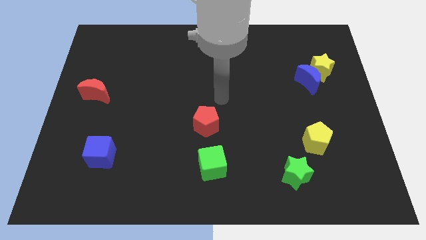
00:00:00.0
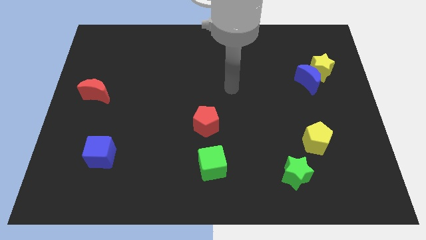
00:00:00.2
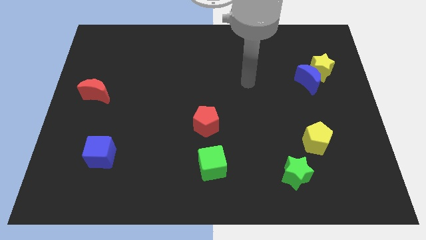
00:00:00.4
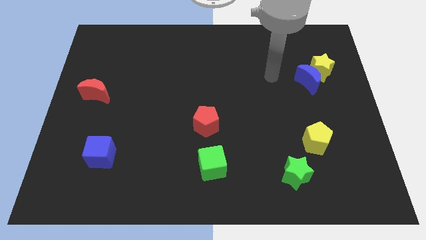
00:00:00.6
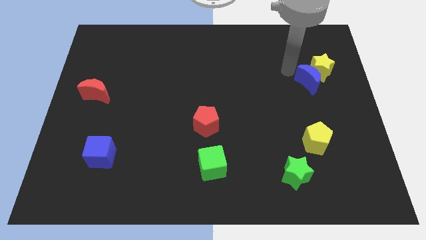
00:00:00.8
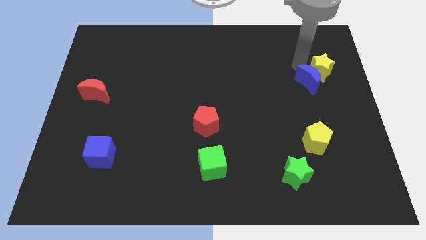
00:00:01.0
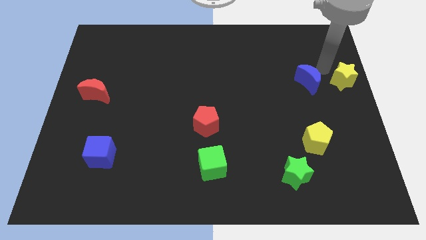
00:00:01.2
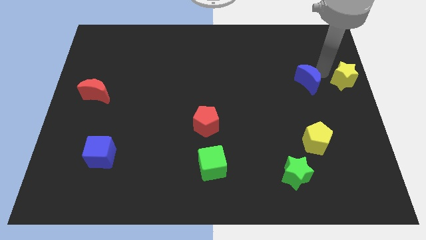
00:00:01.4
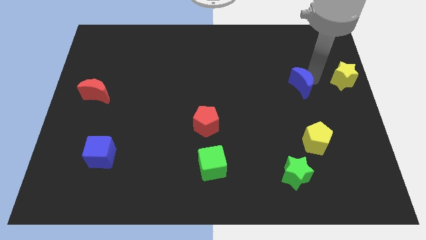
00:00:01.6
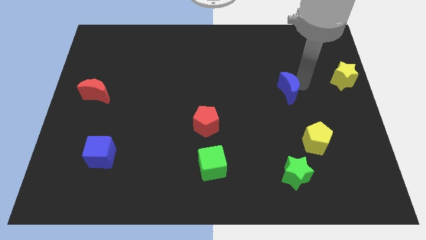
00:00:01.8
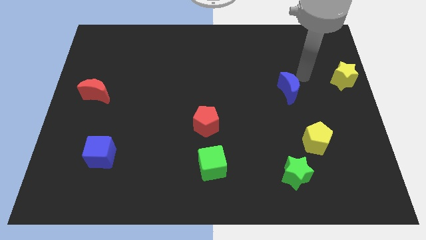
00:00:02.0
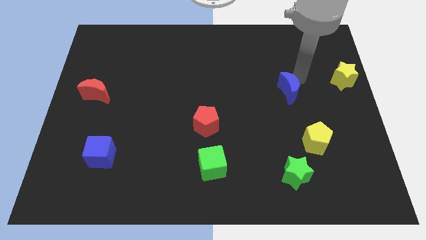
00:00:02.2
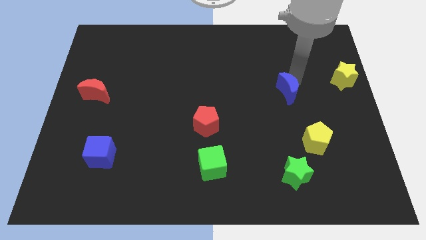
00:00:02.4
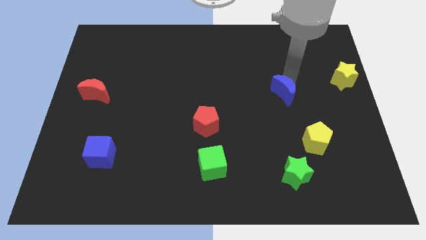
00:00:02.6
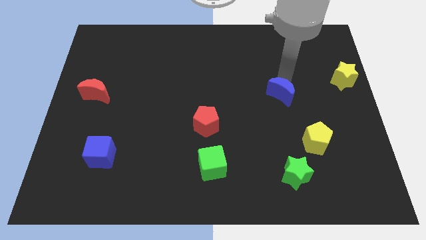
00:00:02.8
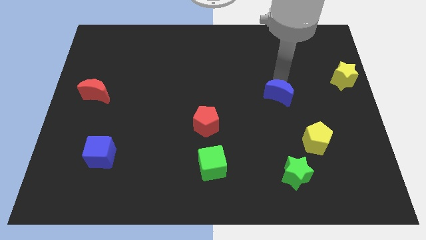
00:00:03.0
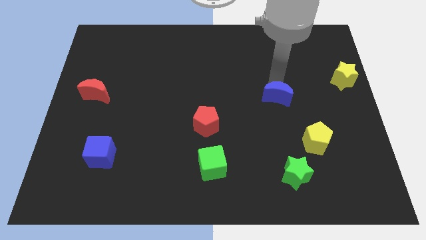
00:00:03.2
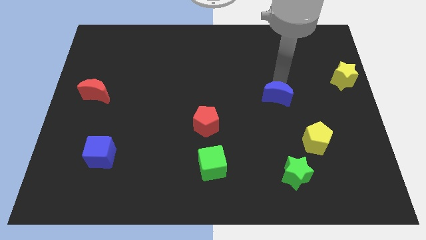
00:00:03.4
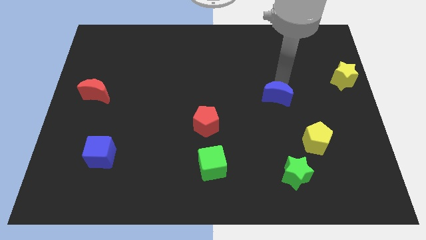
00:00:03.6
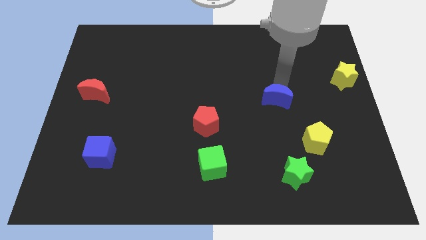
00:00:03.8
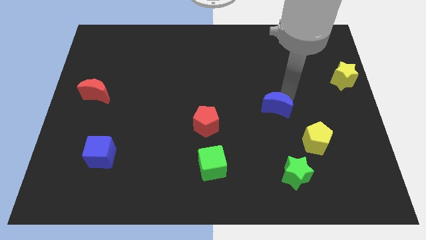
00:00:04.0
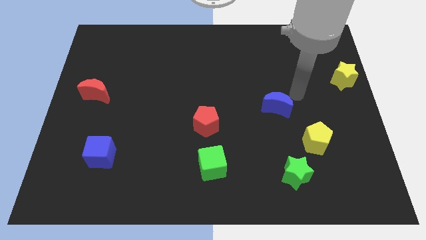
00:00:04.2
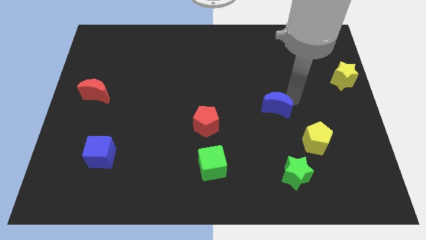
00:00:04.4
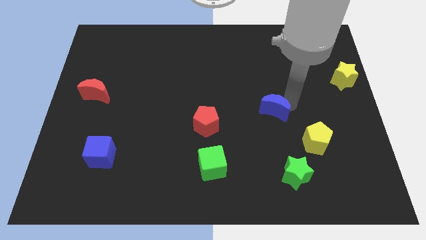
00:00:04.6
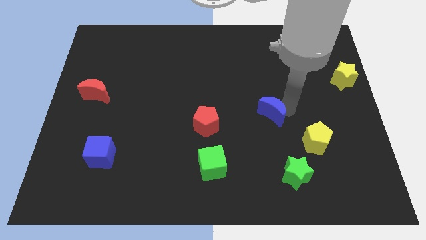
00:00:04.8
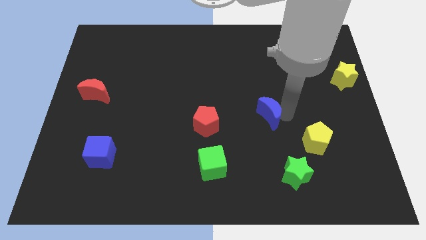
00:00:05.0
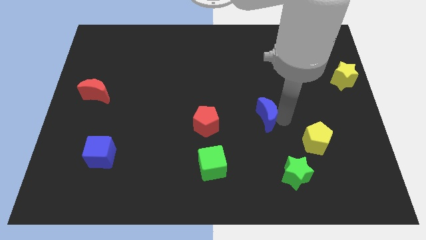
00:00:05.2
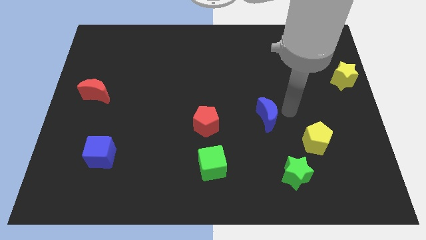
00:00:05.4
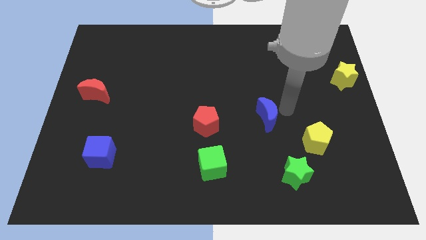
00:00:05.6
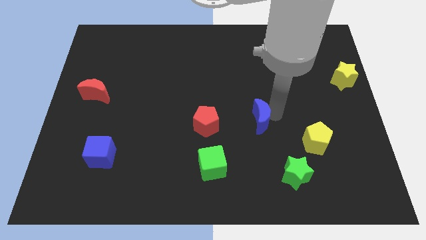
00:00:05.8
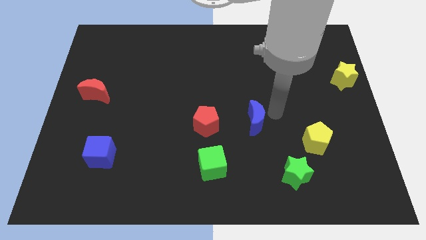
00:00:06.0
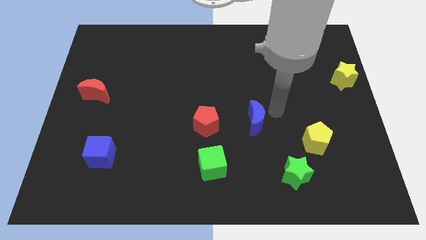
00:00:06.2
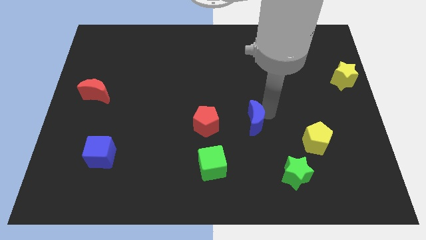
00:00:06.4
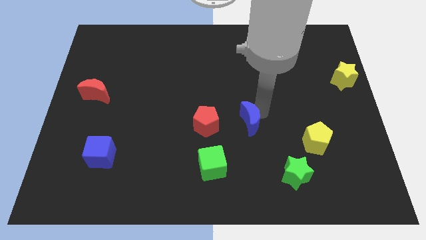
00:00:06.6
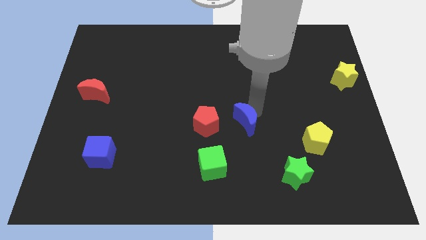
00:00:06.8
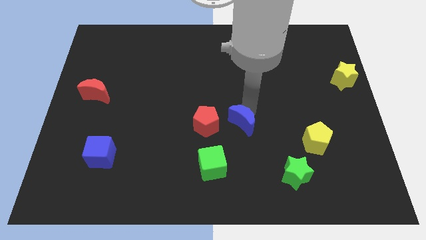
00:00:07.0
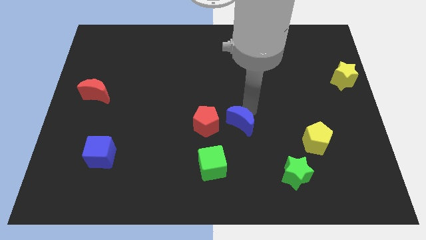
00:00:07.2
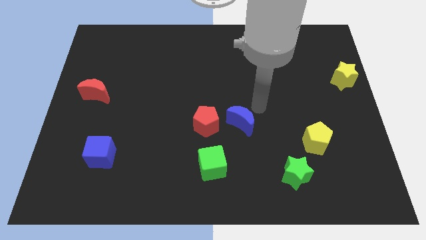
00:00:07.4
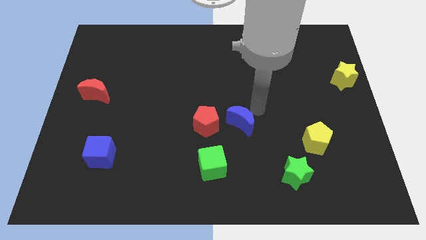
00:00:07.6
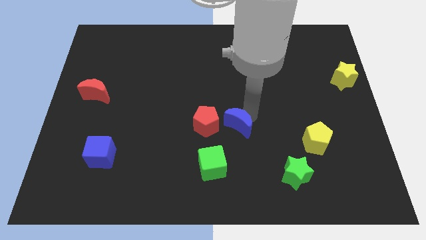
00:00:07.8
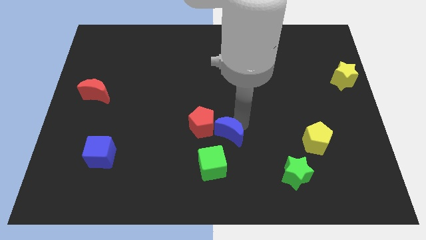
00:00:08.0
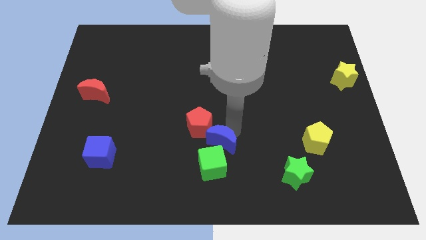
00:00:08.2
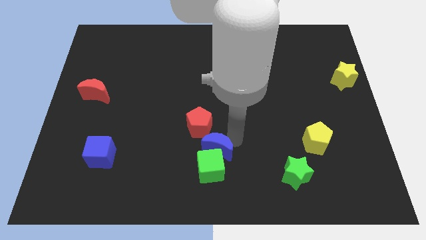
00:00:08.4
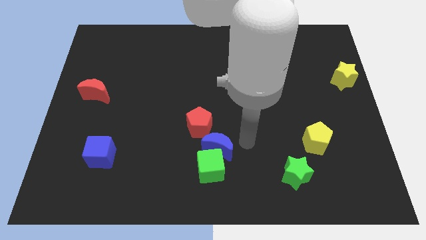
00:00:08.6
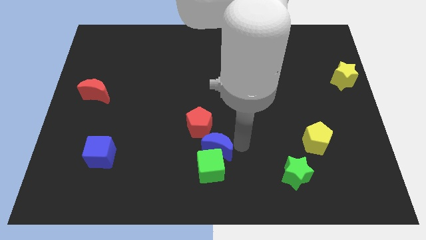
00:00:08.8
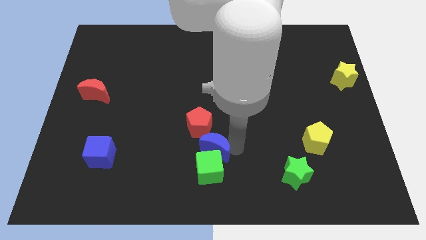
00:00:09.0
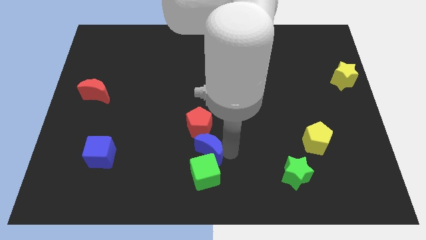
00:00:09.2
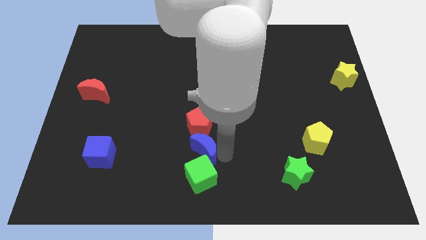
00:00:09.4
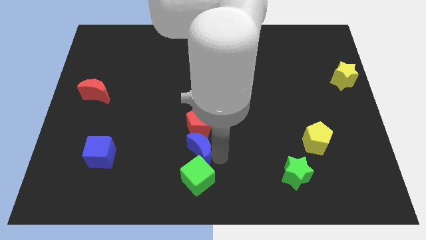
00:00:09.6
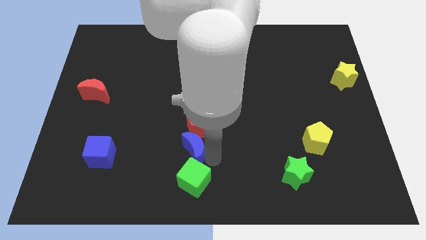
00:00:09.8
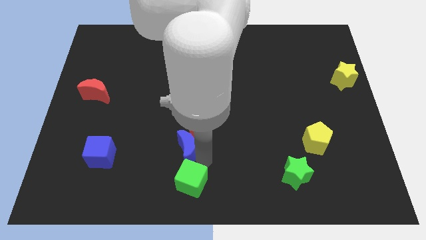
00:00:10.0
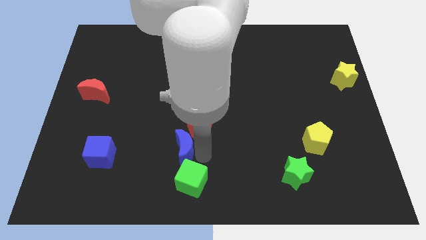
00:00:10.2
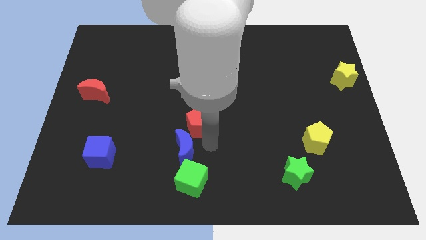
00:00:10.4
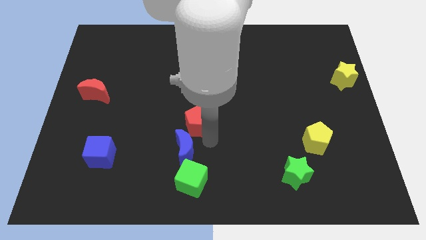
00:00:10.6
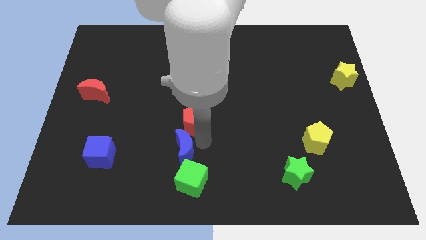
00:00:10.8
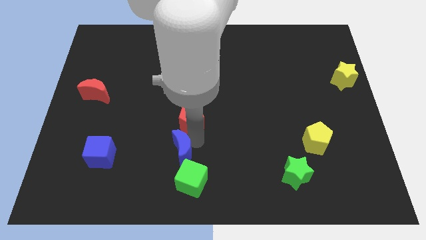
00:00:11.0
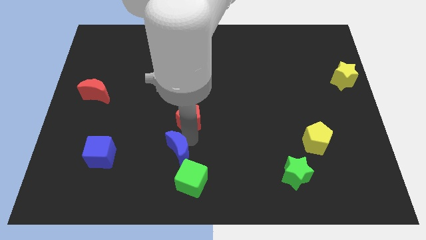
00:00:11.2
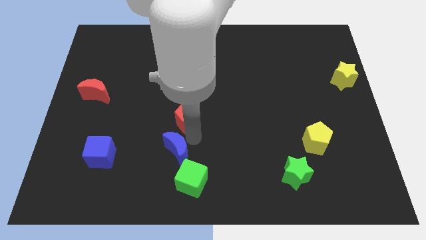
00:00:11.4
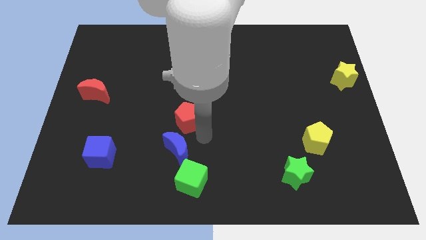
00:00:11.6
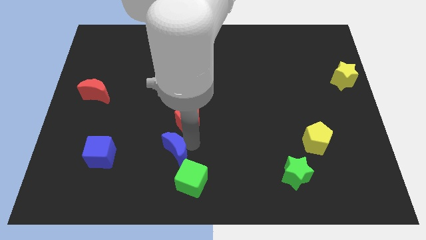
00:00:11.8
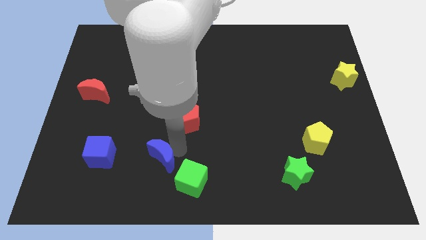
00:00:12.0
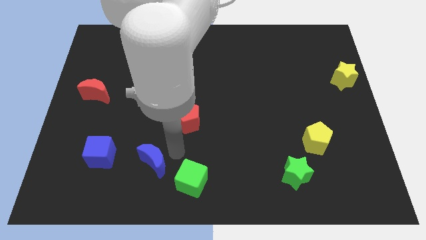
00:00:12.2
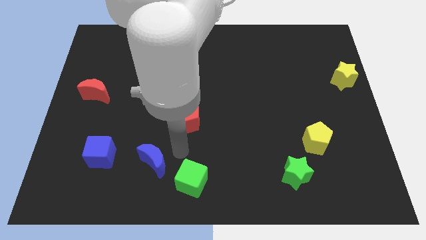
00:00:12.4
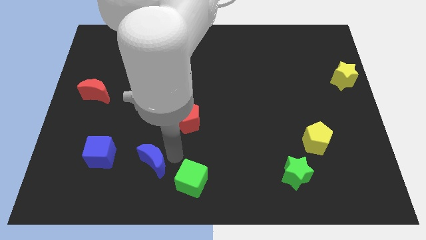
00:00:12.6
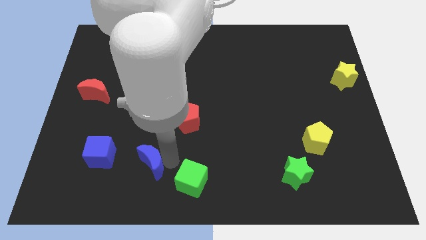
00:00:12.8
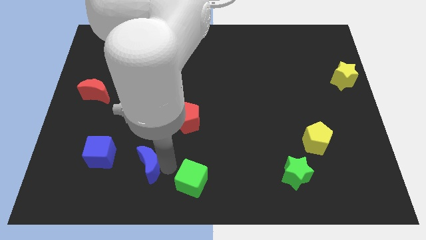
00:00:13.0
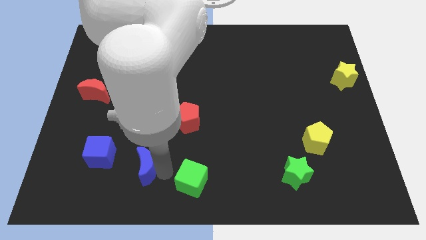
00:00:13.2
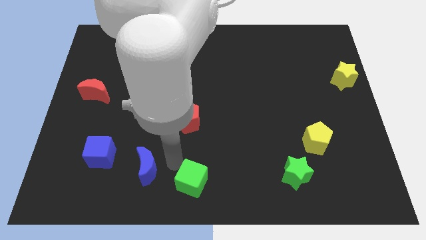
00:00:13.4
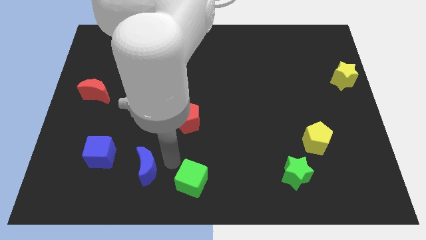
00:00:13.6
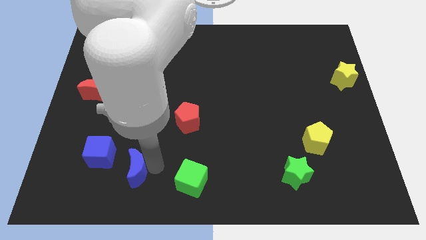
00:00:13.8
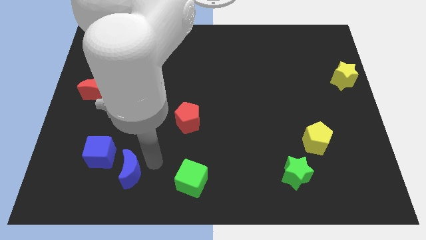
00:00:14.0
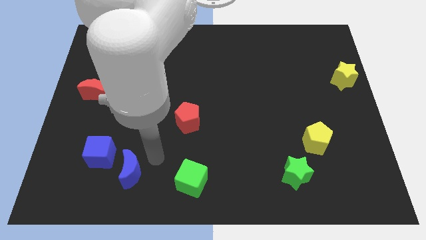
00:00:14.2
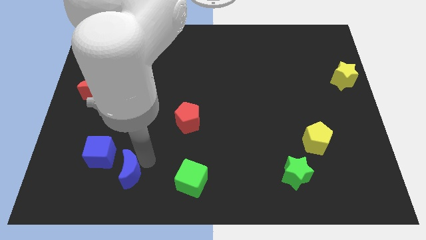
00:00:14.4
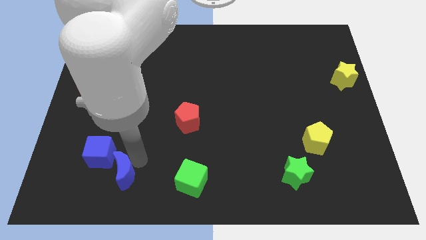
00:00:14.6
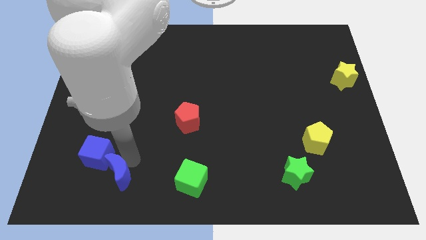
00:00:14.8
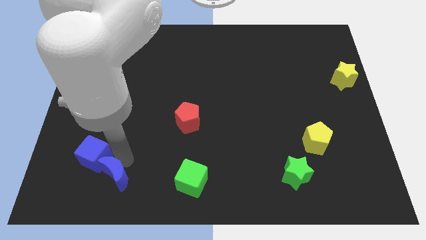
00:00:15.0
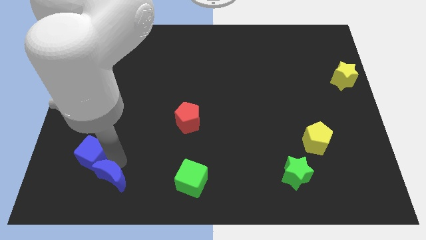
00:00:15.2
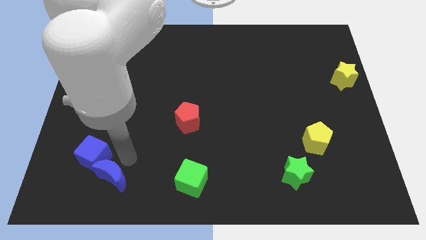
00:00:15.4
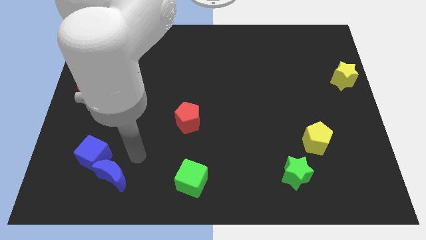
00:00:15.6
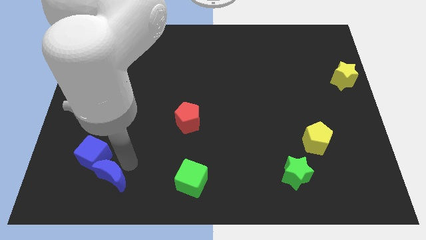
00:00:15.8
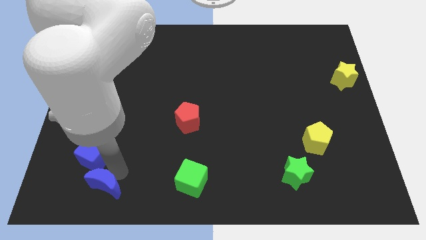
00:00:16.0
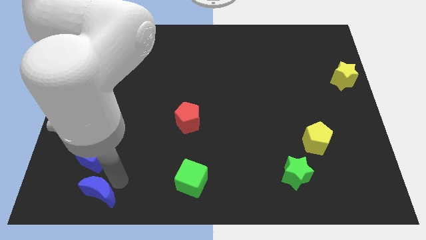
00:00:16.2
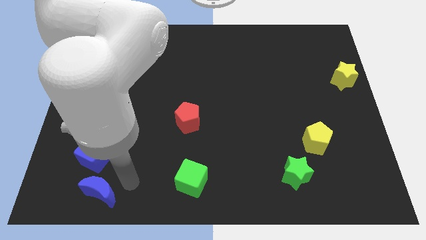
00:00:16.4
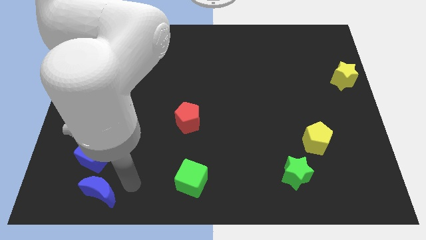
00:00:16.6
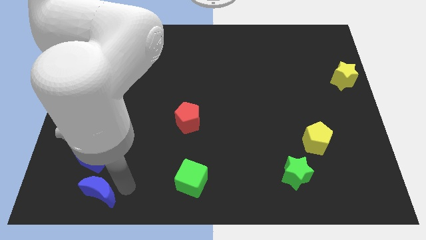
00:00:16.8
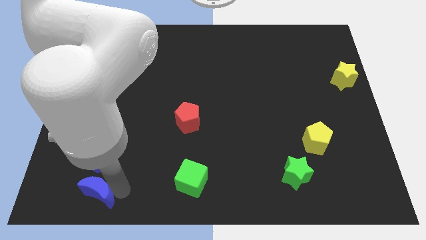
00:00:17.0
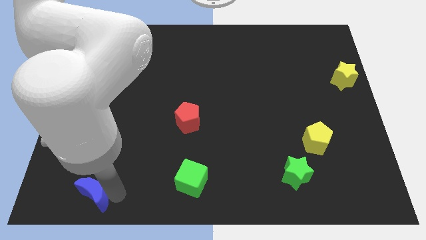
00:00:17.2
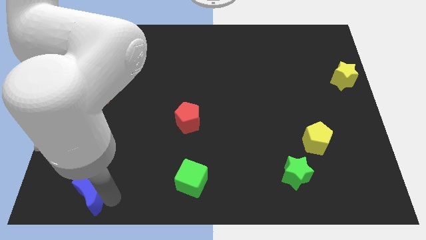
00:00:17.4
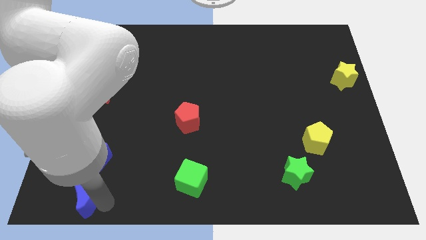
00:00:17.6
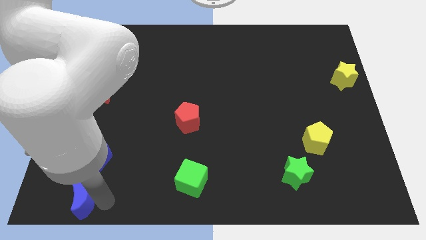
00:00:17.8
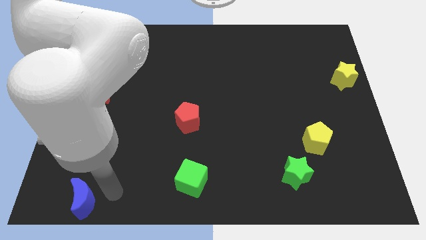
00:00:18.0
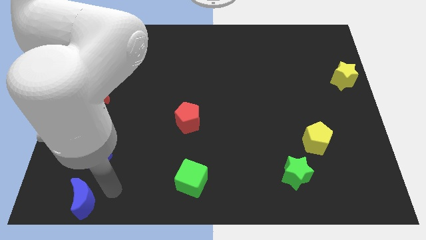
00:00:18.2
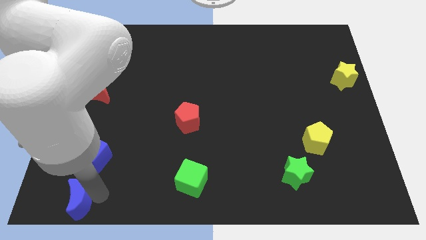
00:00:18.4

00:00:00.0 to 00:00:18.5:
put the blue moon to the lower left corner
